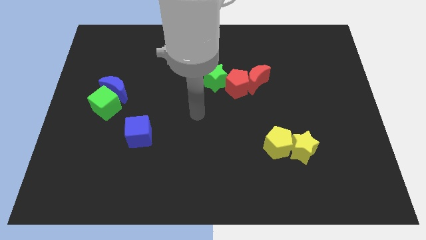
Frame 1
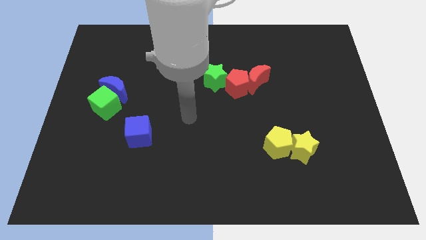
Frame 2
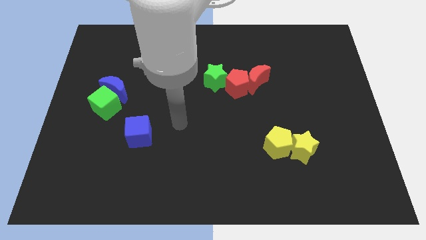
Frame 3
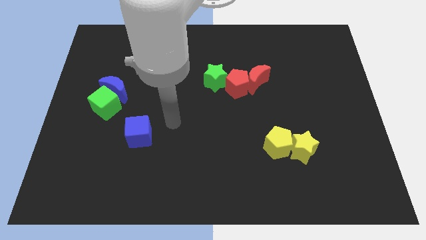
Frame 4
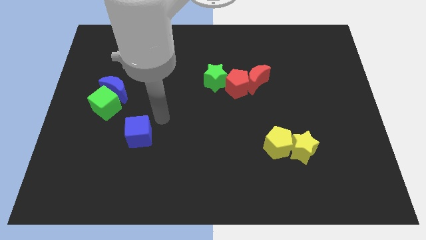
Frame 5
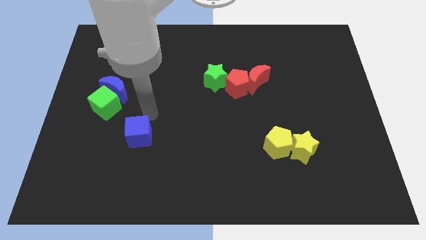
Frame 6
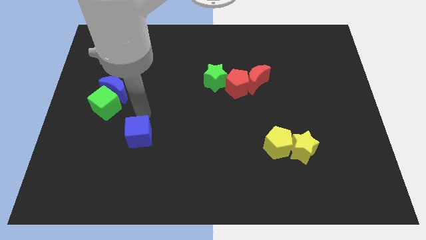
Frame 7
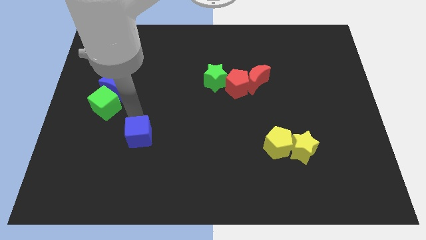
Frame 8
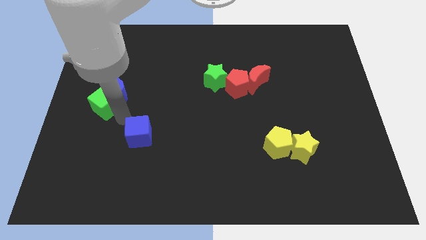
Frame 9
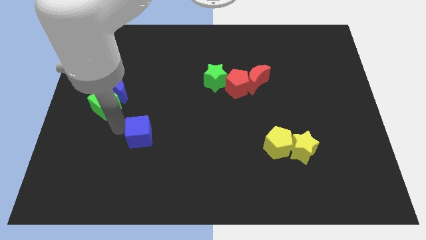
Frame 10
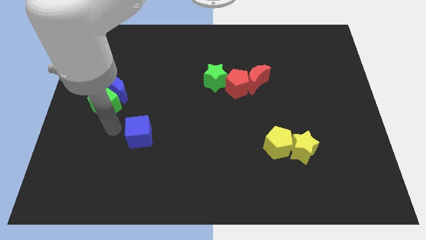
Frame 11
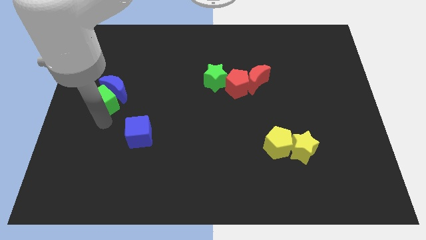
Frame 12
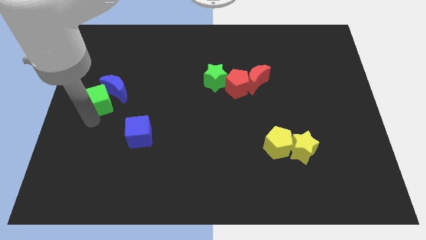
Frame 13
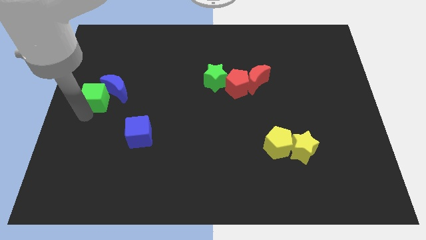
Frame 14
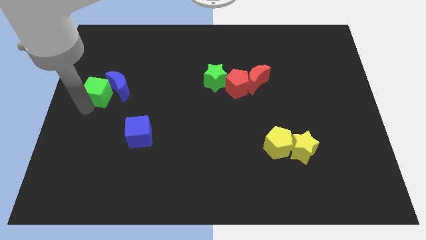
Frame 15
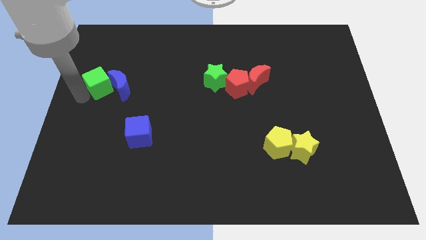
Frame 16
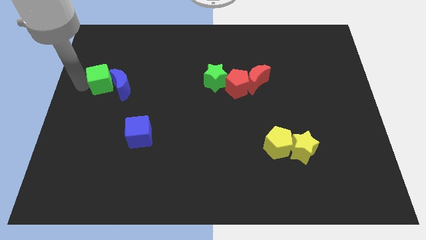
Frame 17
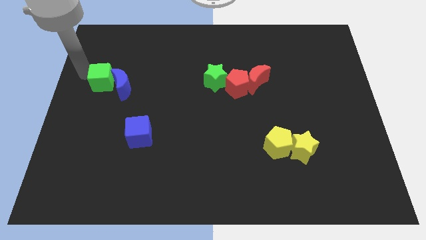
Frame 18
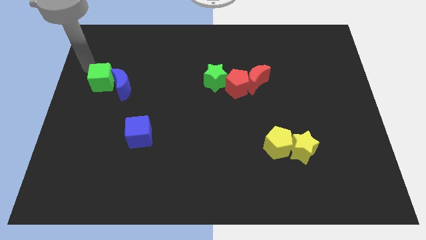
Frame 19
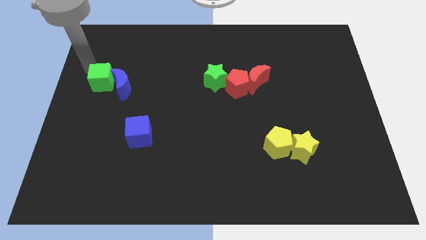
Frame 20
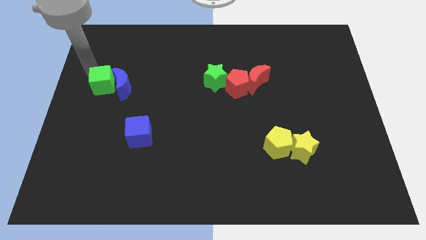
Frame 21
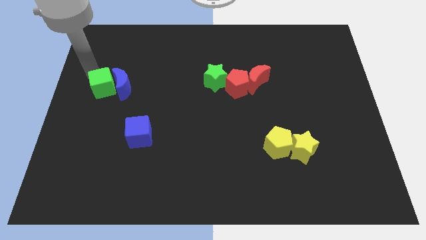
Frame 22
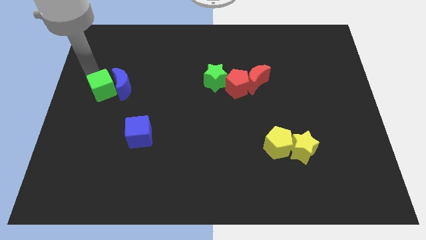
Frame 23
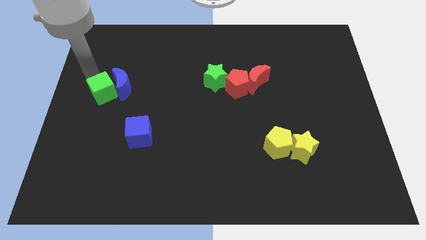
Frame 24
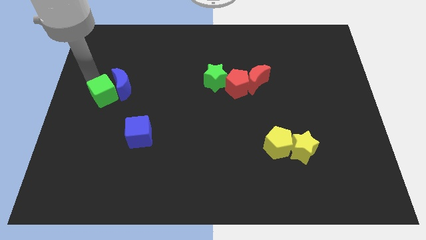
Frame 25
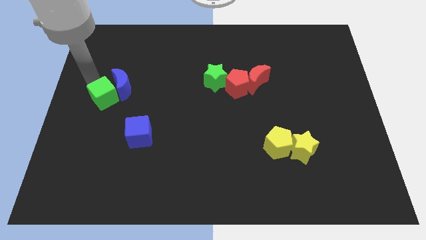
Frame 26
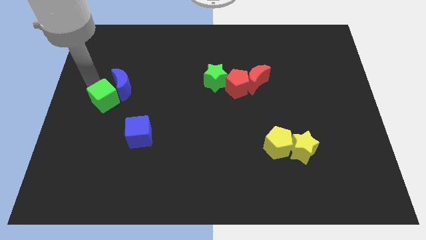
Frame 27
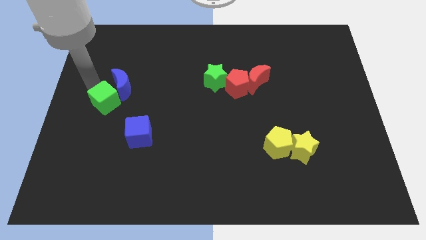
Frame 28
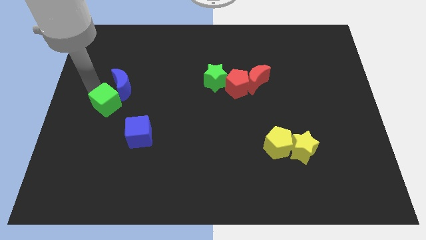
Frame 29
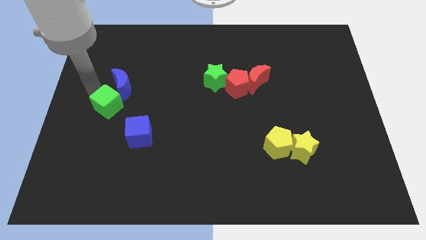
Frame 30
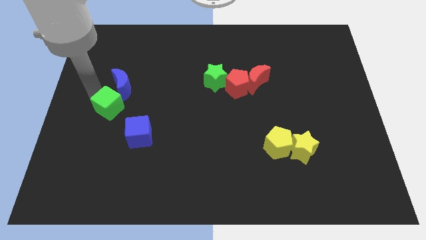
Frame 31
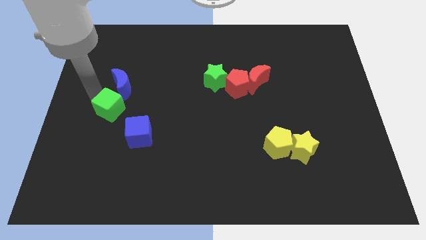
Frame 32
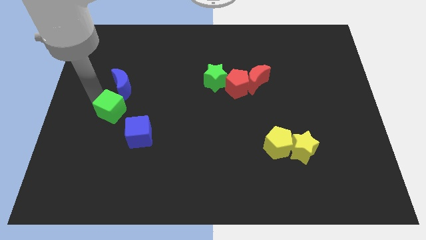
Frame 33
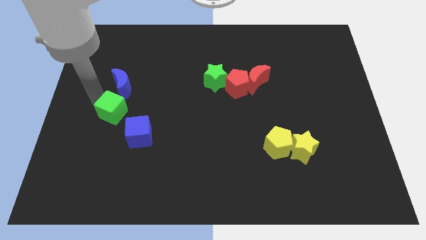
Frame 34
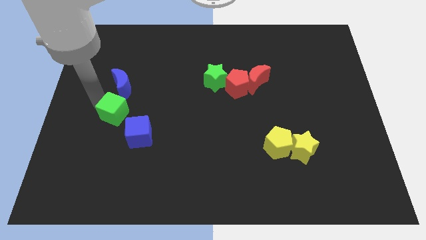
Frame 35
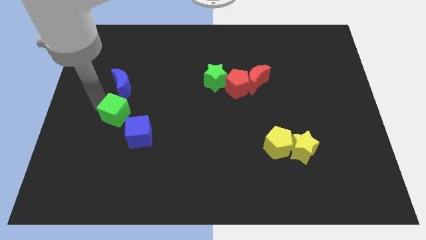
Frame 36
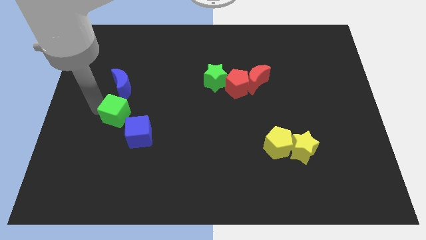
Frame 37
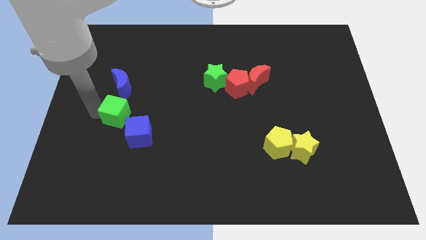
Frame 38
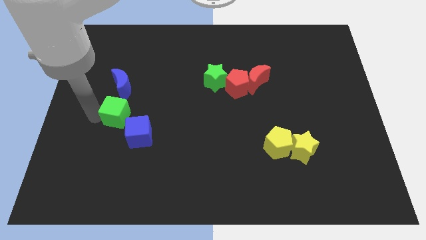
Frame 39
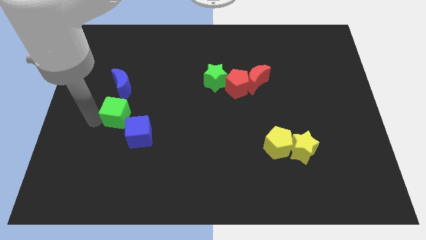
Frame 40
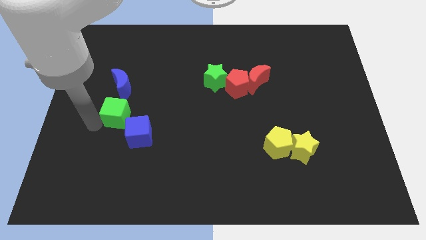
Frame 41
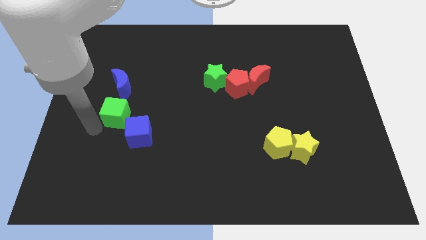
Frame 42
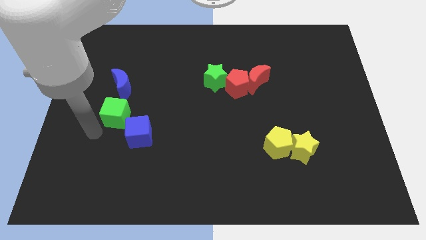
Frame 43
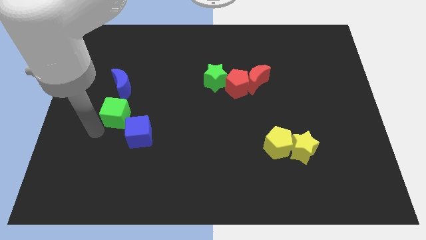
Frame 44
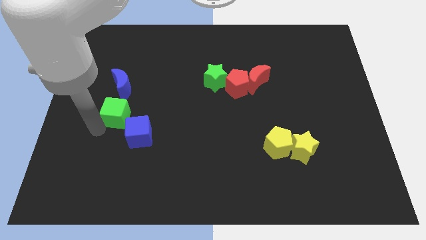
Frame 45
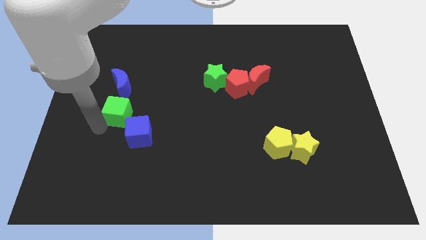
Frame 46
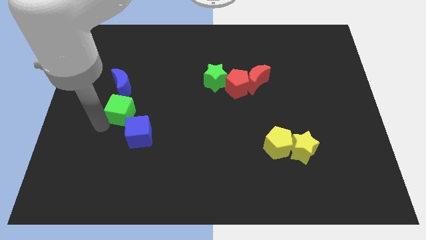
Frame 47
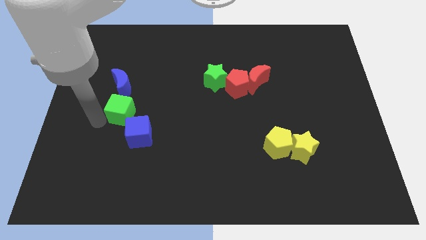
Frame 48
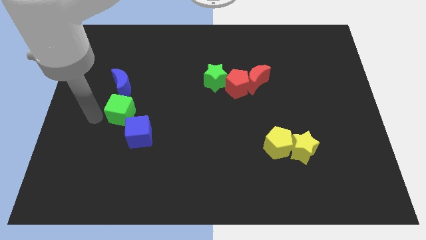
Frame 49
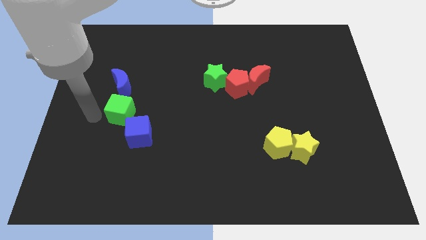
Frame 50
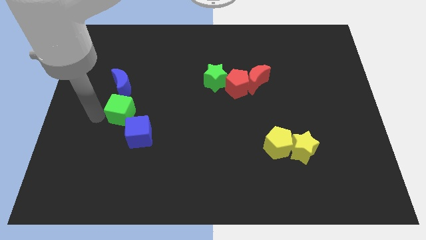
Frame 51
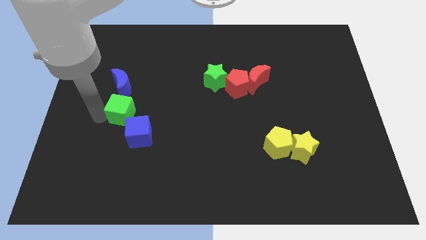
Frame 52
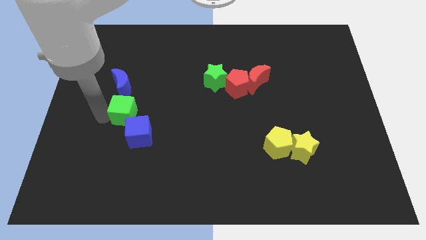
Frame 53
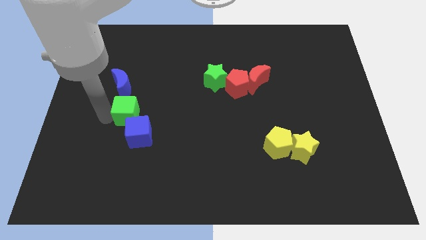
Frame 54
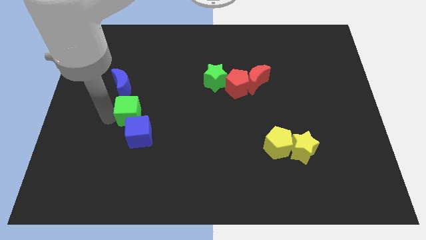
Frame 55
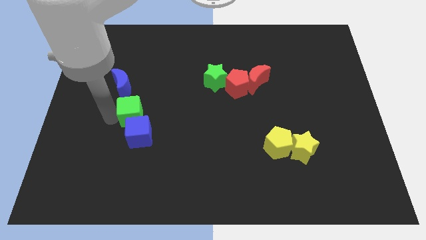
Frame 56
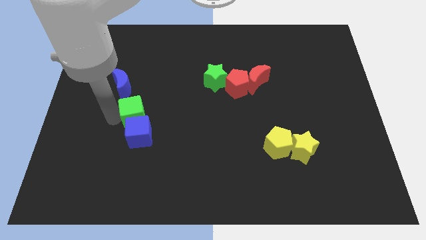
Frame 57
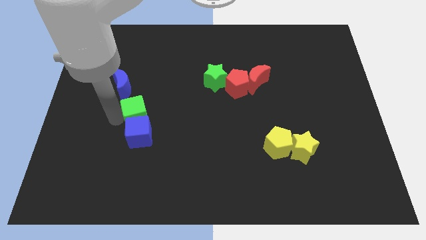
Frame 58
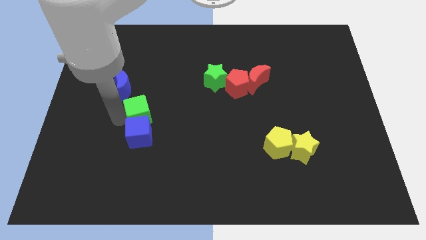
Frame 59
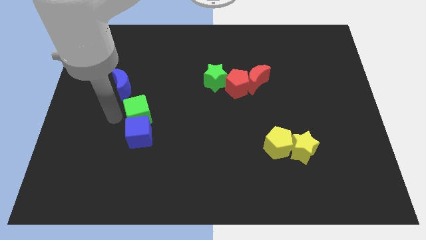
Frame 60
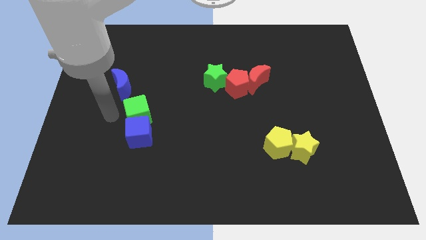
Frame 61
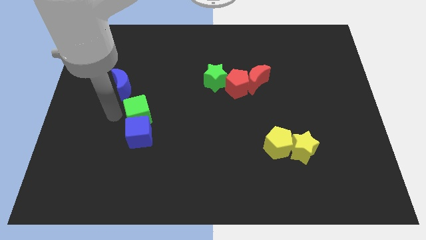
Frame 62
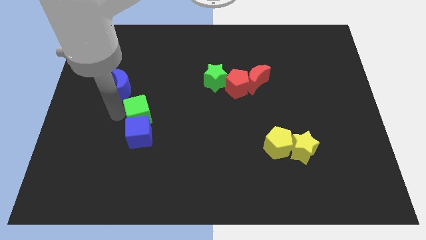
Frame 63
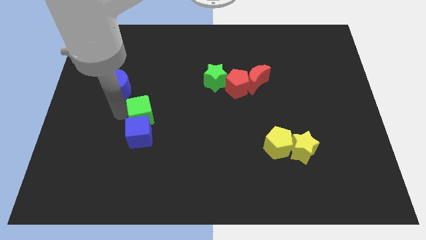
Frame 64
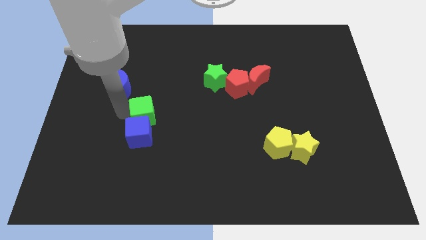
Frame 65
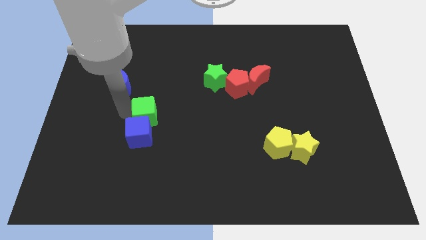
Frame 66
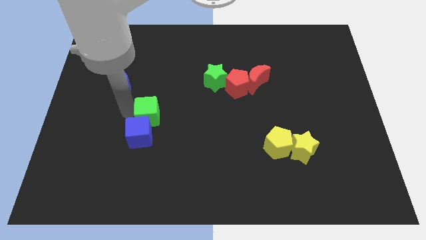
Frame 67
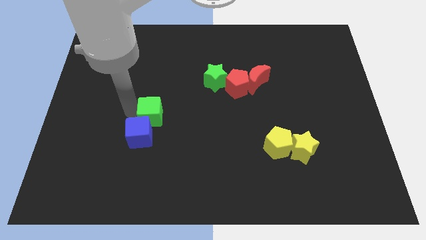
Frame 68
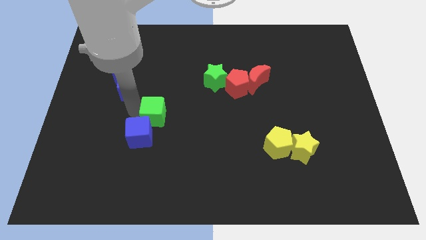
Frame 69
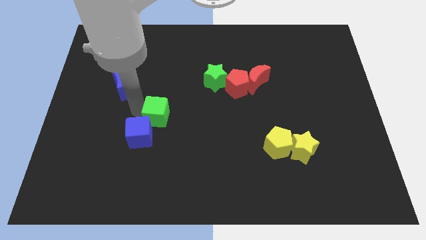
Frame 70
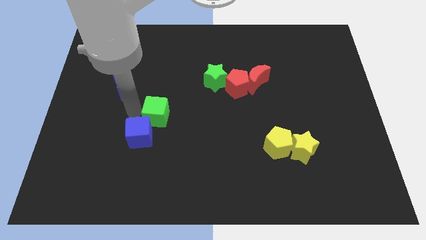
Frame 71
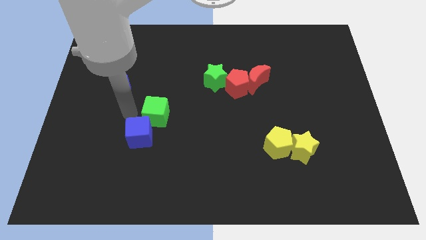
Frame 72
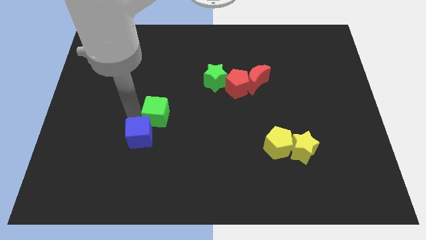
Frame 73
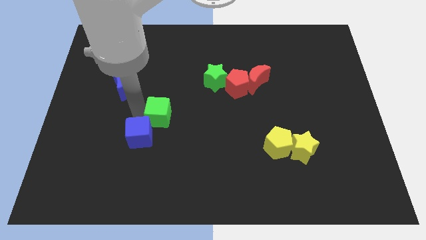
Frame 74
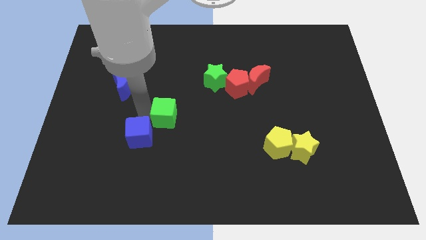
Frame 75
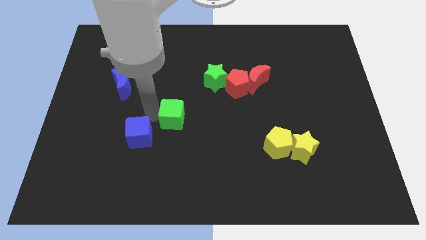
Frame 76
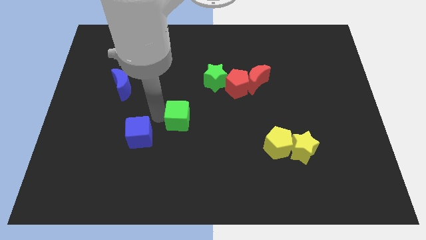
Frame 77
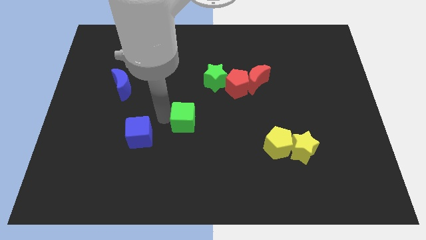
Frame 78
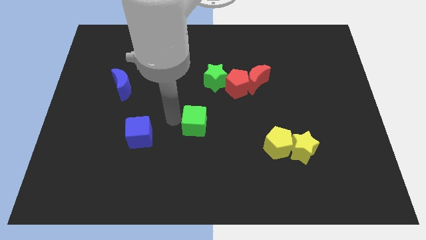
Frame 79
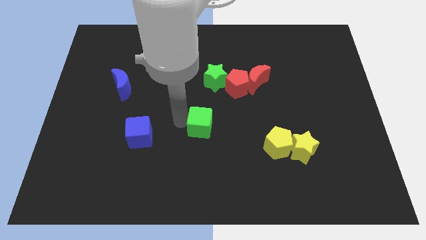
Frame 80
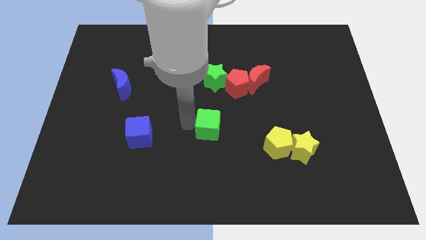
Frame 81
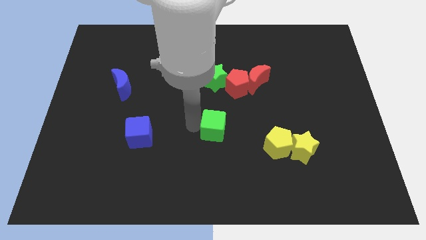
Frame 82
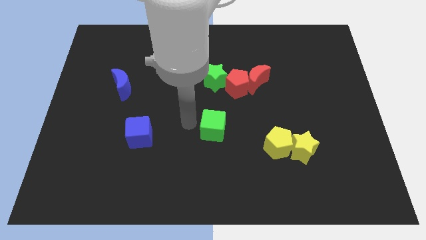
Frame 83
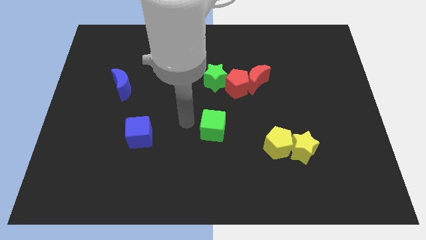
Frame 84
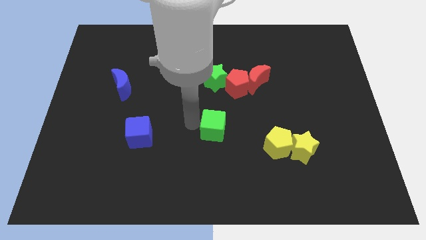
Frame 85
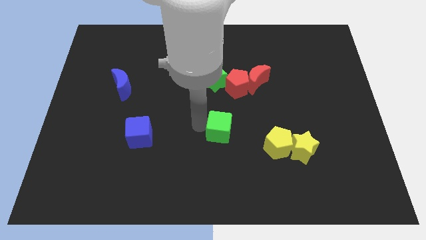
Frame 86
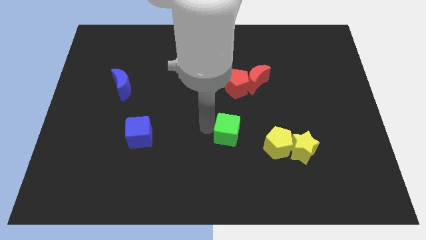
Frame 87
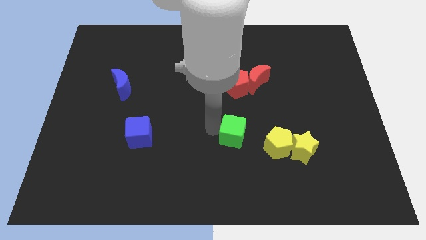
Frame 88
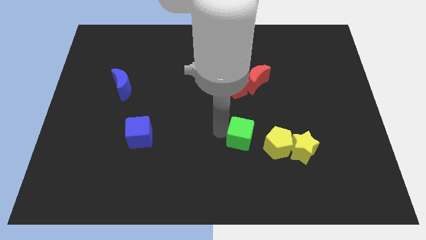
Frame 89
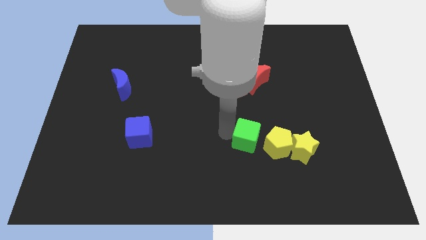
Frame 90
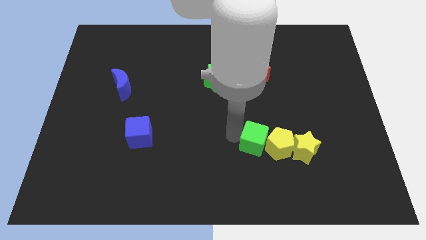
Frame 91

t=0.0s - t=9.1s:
move the green cube close to the yellow pentagon
